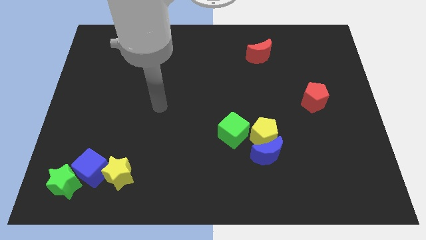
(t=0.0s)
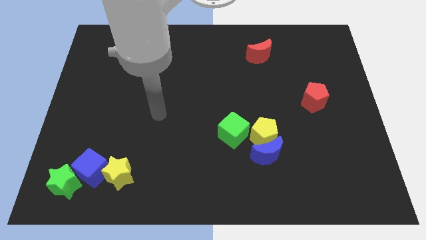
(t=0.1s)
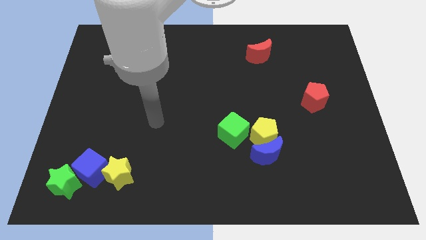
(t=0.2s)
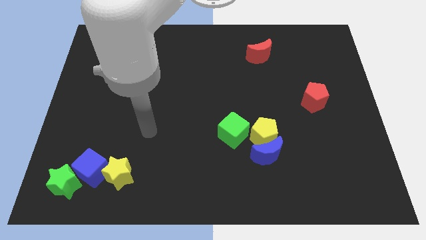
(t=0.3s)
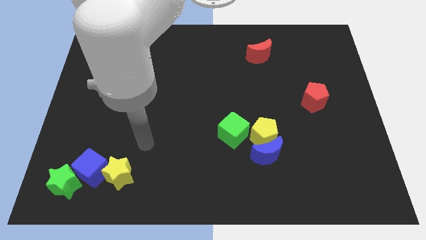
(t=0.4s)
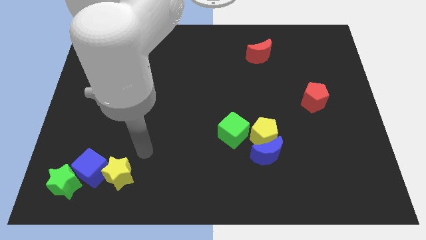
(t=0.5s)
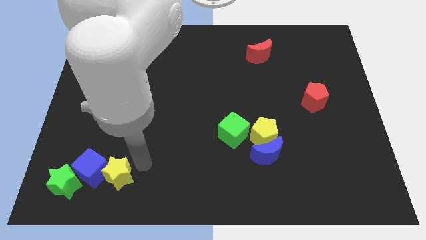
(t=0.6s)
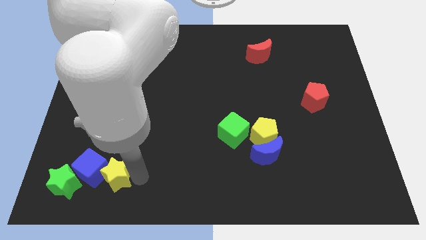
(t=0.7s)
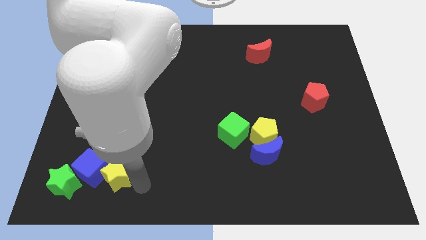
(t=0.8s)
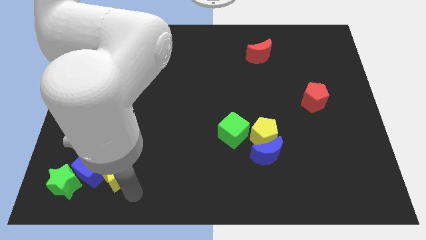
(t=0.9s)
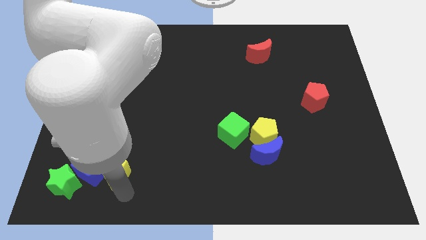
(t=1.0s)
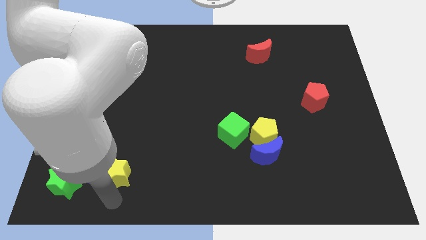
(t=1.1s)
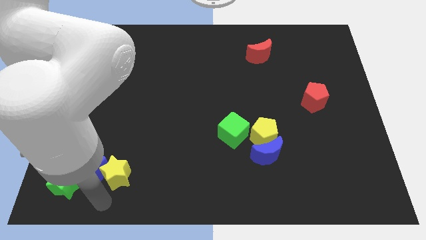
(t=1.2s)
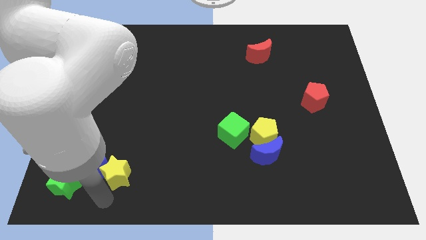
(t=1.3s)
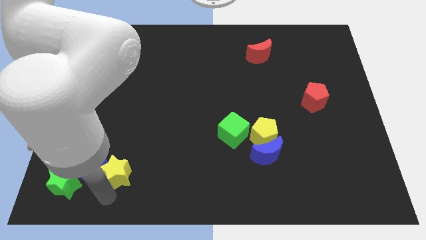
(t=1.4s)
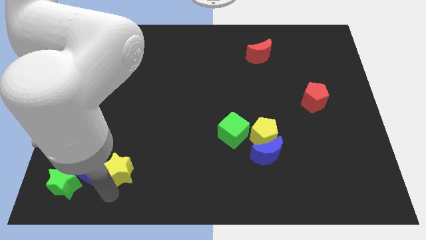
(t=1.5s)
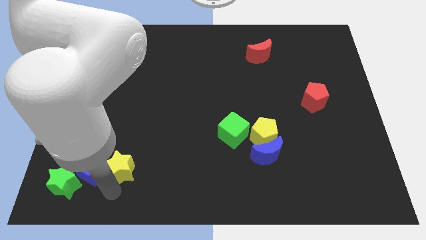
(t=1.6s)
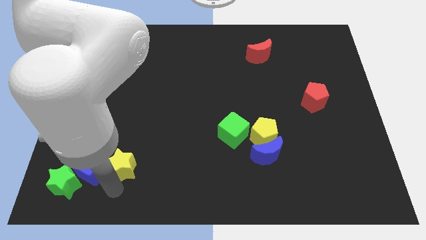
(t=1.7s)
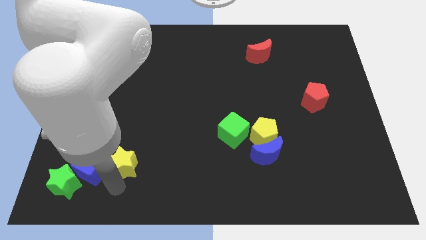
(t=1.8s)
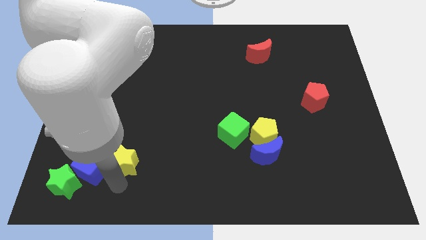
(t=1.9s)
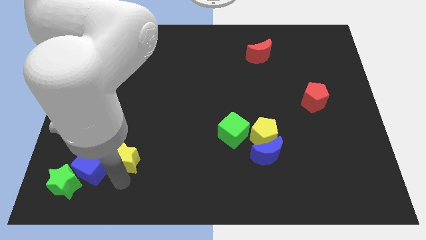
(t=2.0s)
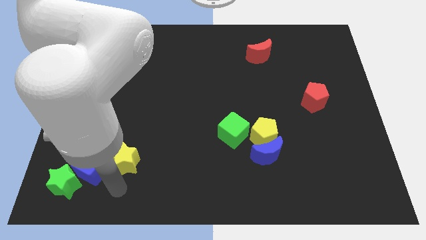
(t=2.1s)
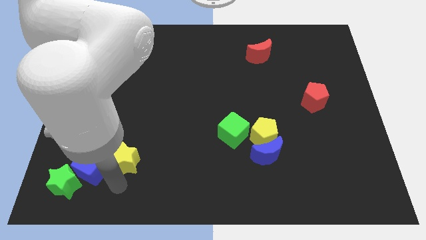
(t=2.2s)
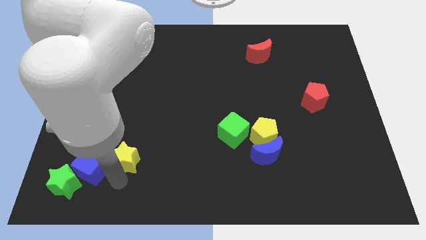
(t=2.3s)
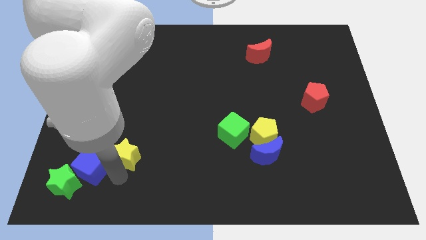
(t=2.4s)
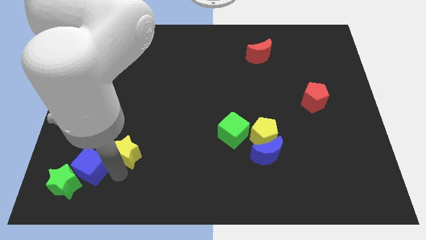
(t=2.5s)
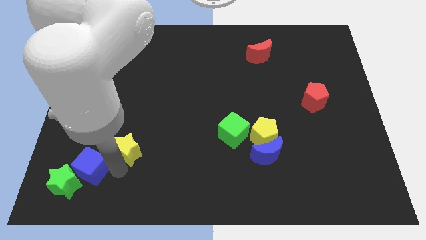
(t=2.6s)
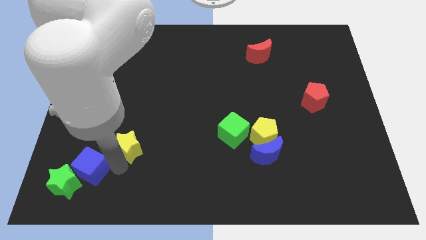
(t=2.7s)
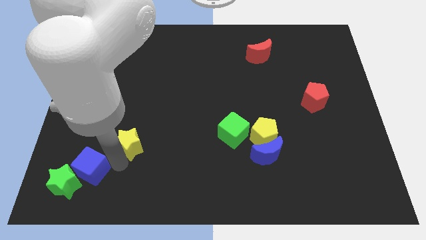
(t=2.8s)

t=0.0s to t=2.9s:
slightly move the yellow star upwards

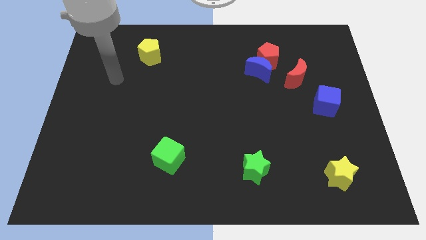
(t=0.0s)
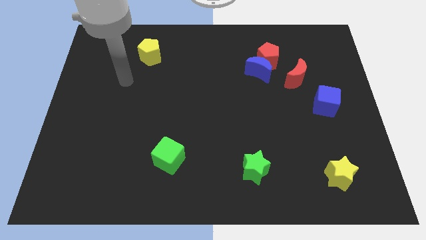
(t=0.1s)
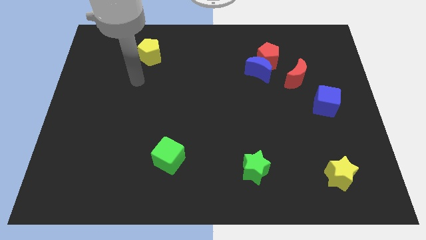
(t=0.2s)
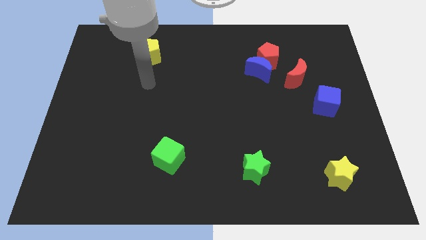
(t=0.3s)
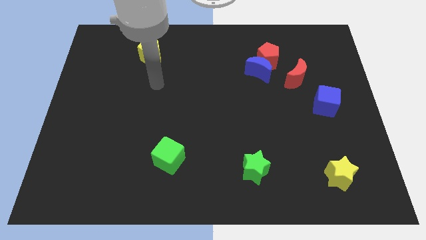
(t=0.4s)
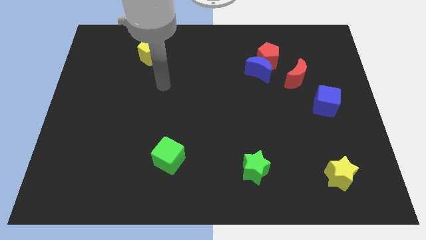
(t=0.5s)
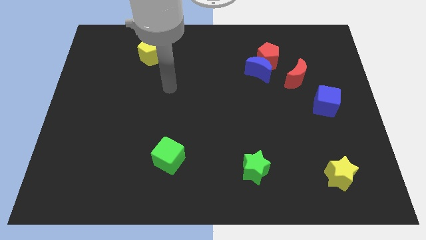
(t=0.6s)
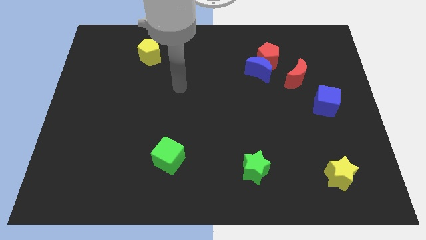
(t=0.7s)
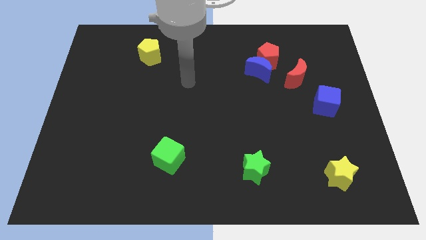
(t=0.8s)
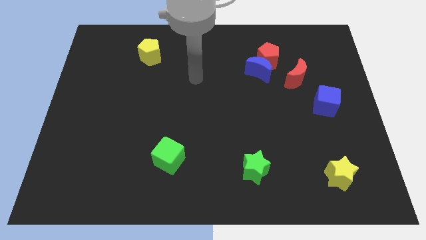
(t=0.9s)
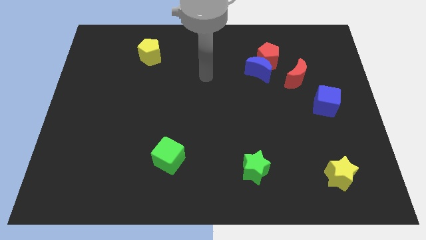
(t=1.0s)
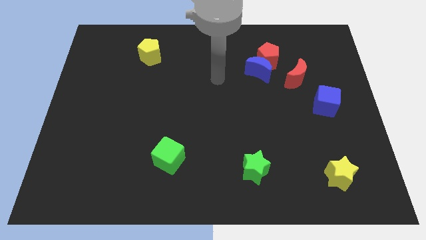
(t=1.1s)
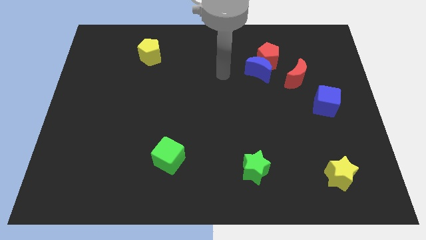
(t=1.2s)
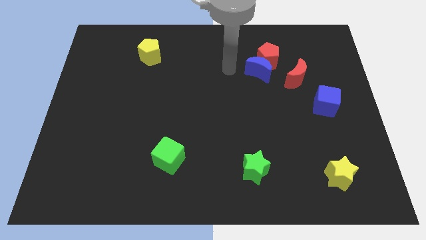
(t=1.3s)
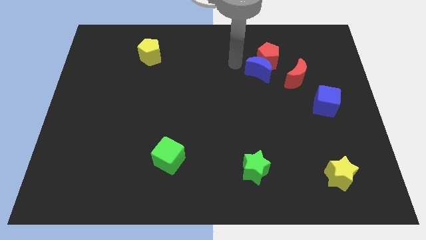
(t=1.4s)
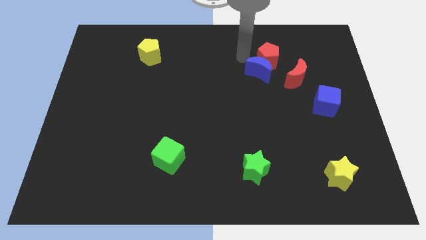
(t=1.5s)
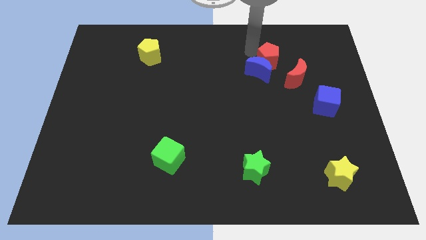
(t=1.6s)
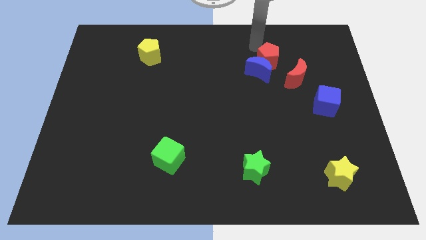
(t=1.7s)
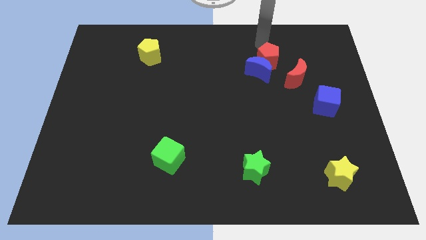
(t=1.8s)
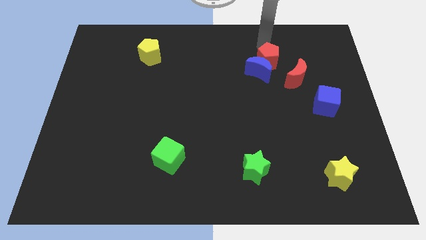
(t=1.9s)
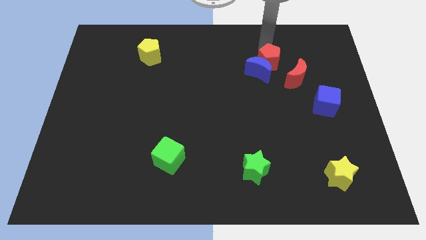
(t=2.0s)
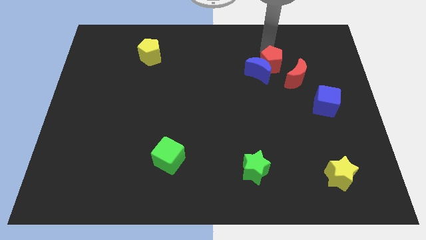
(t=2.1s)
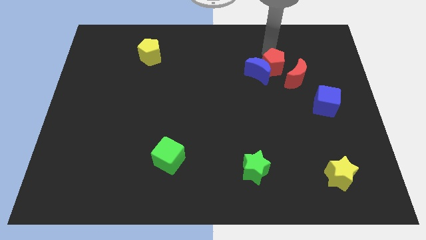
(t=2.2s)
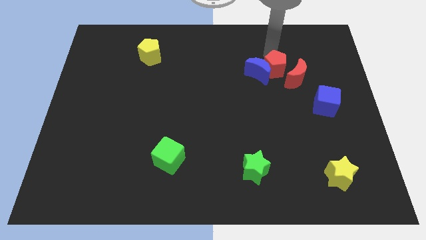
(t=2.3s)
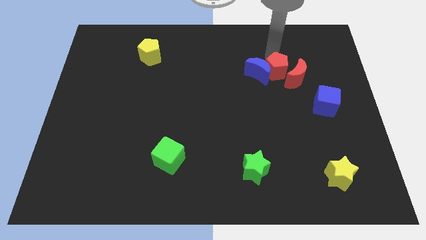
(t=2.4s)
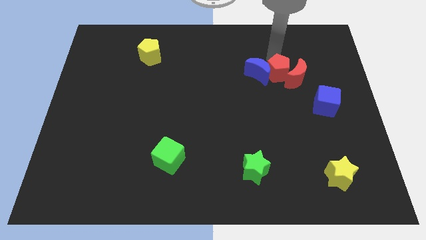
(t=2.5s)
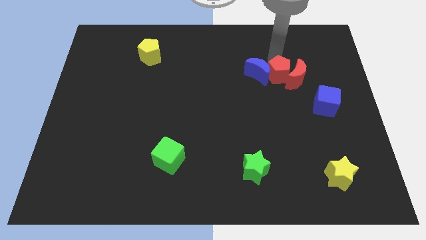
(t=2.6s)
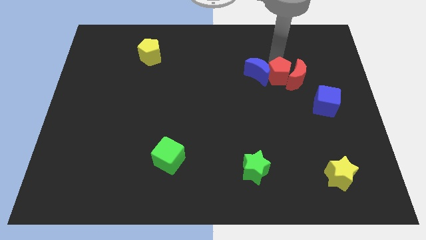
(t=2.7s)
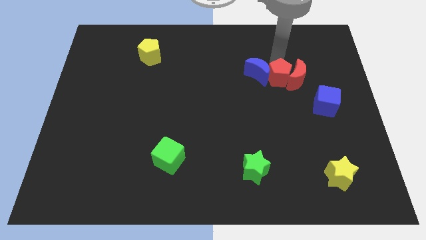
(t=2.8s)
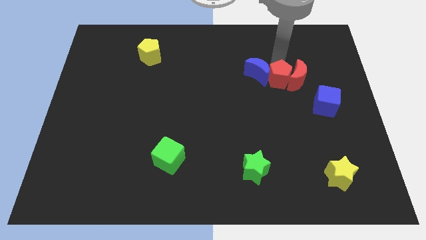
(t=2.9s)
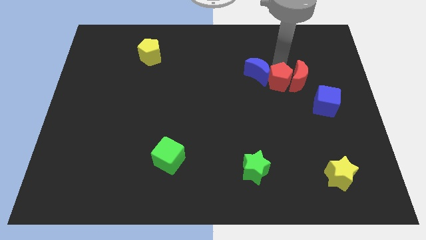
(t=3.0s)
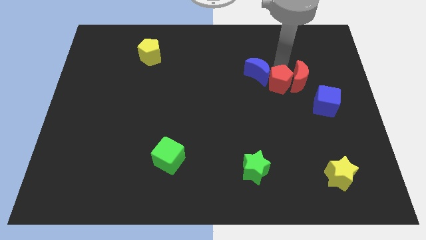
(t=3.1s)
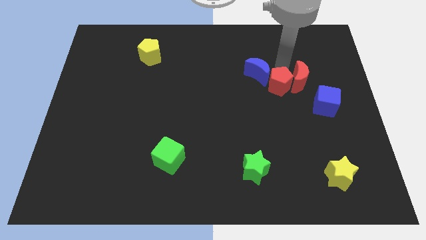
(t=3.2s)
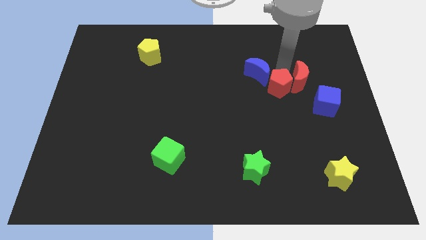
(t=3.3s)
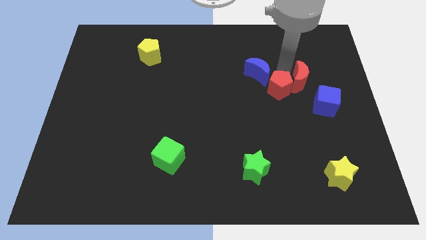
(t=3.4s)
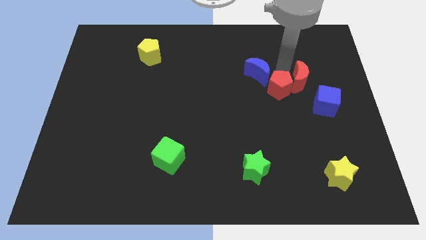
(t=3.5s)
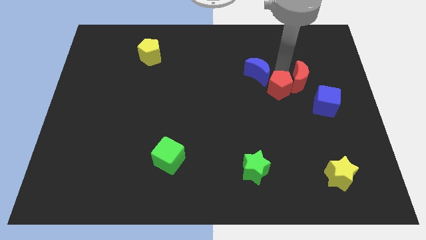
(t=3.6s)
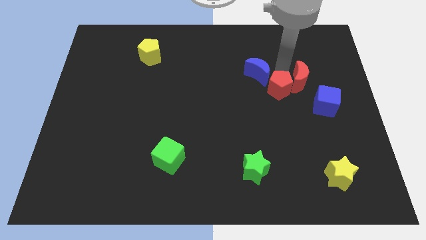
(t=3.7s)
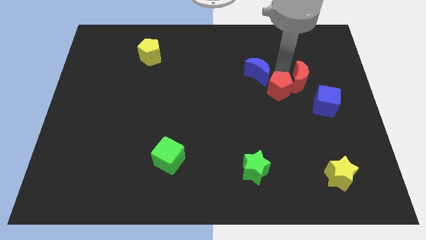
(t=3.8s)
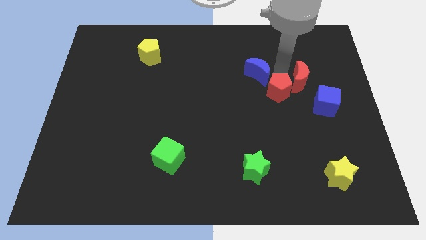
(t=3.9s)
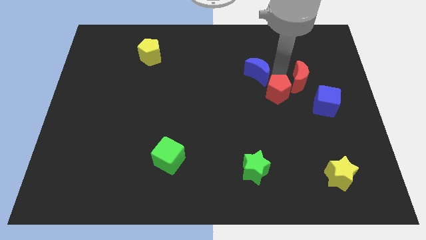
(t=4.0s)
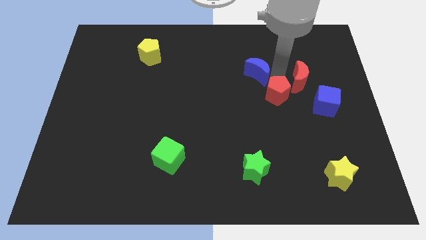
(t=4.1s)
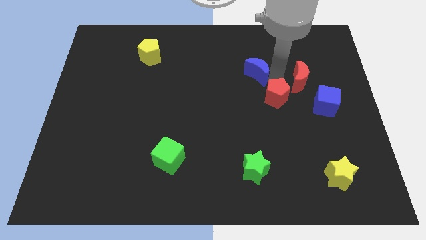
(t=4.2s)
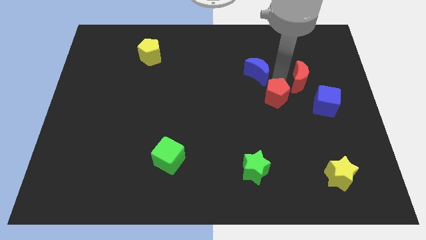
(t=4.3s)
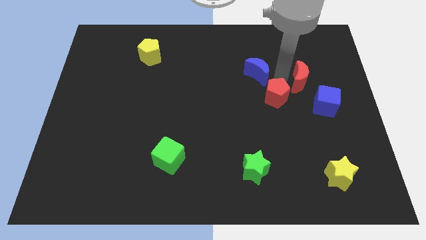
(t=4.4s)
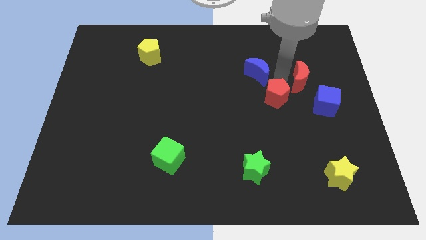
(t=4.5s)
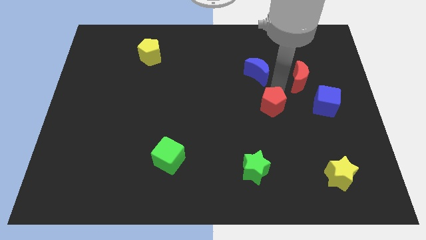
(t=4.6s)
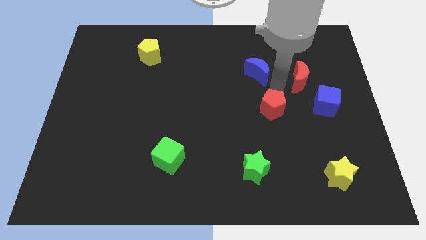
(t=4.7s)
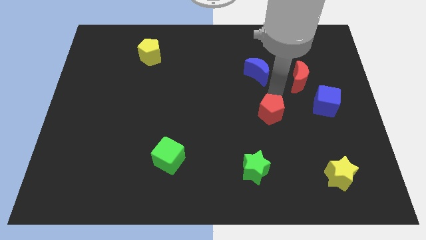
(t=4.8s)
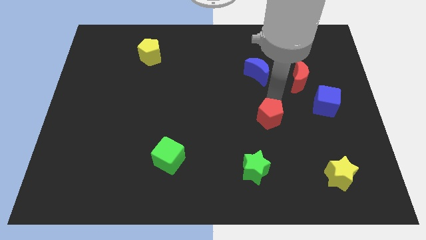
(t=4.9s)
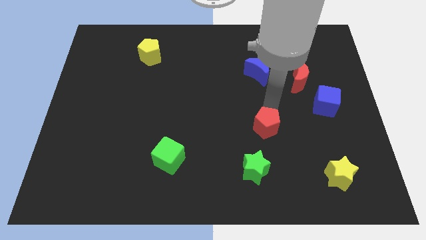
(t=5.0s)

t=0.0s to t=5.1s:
slide the red pentagon down

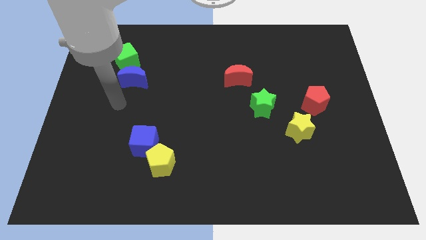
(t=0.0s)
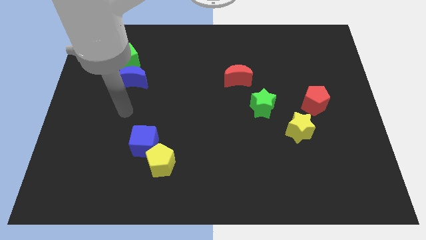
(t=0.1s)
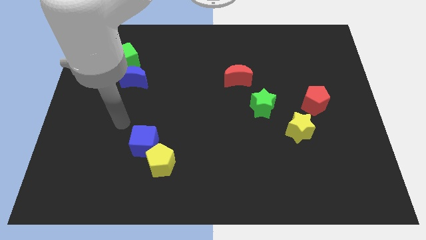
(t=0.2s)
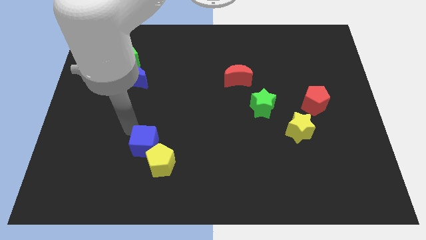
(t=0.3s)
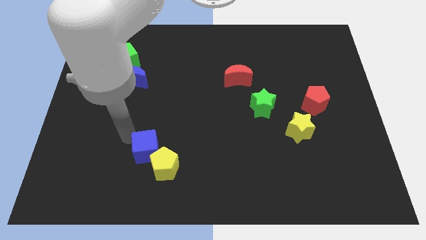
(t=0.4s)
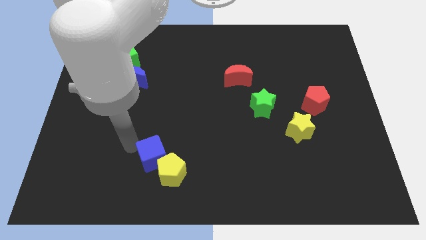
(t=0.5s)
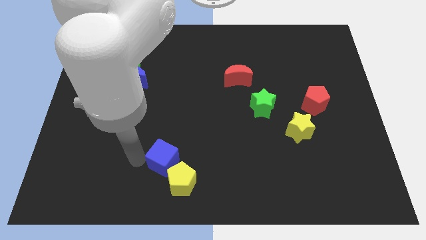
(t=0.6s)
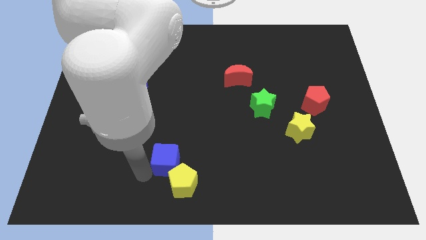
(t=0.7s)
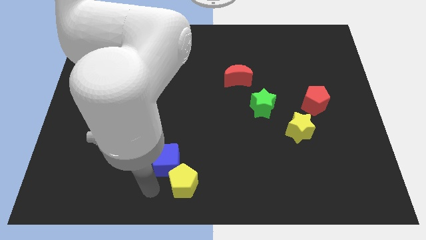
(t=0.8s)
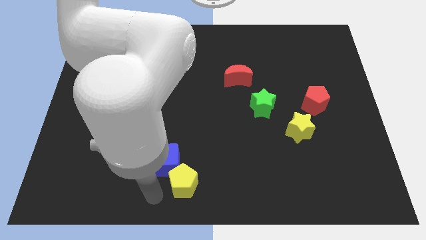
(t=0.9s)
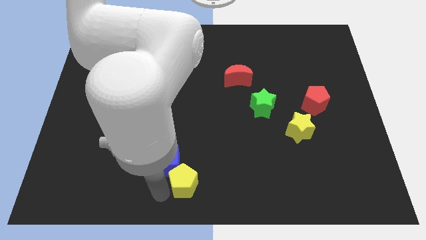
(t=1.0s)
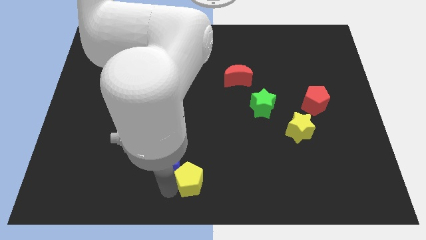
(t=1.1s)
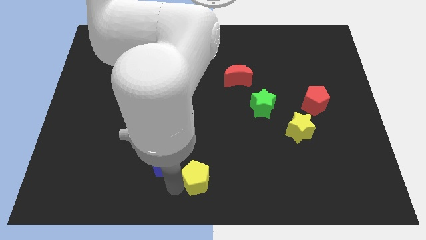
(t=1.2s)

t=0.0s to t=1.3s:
slightly slide the yellow pentagon right
